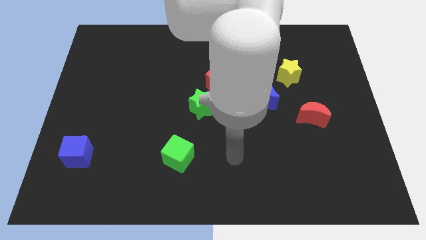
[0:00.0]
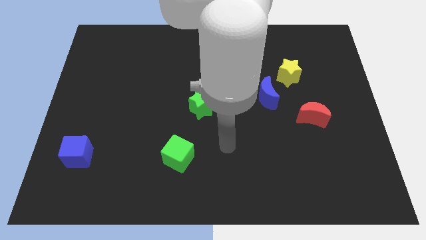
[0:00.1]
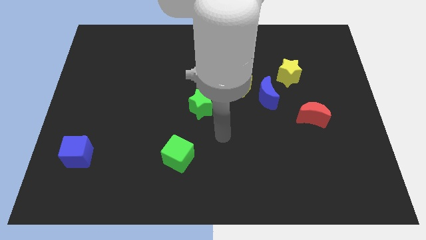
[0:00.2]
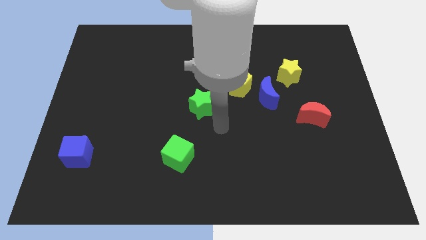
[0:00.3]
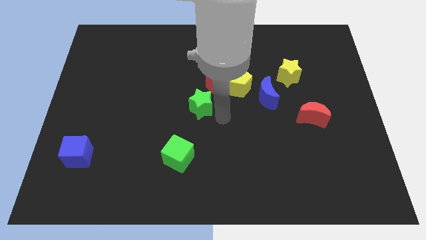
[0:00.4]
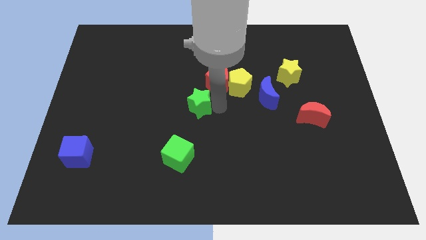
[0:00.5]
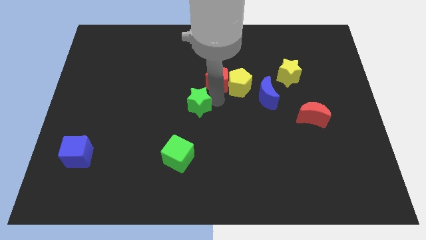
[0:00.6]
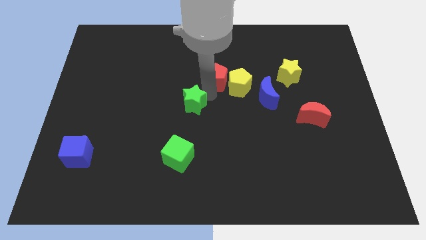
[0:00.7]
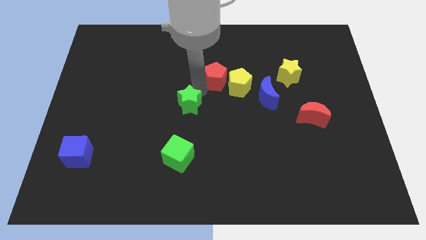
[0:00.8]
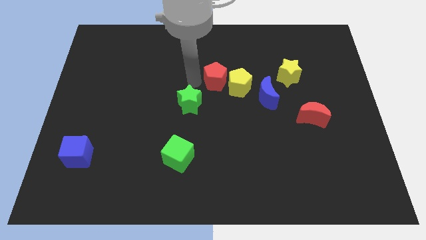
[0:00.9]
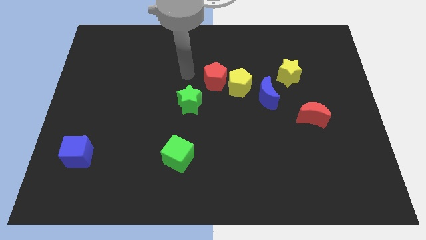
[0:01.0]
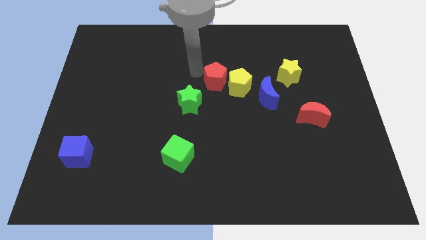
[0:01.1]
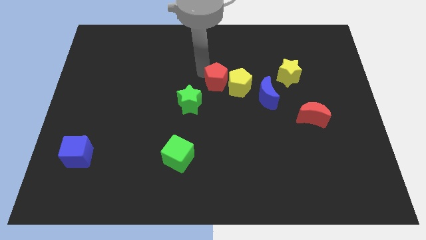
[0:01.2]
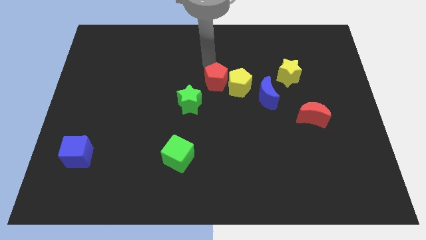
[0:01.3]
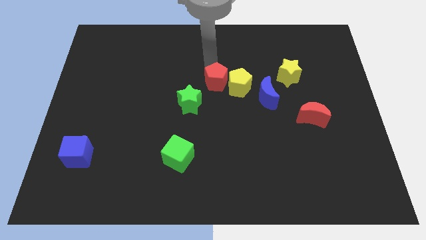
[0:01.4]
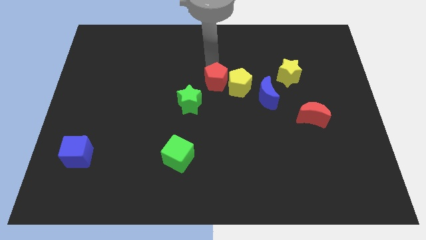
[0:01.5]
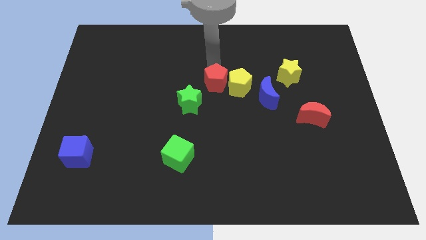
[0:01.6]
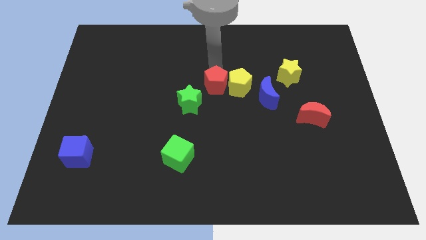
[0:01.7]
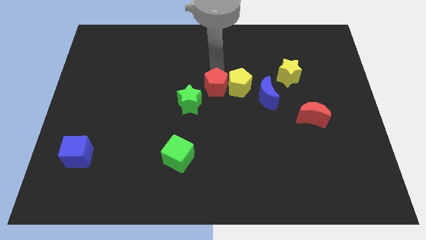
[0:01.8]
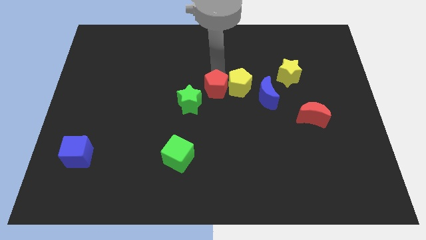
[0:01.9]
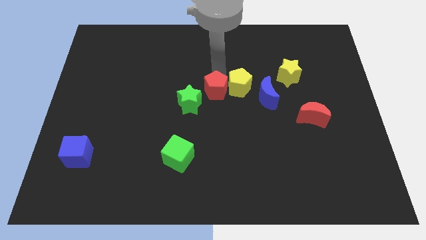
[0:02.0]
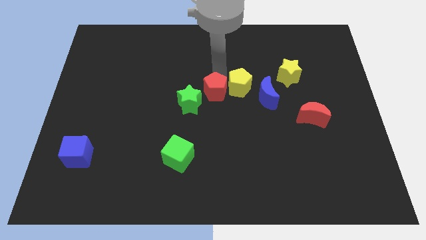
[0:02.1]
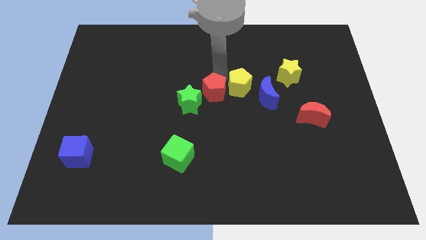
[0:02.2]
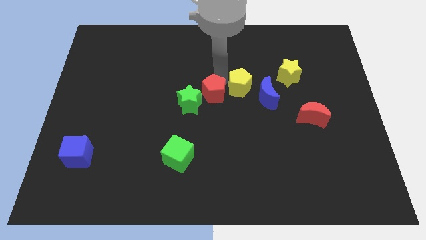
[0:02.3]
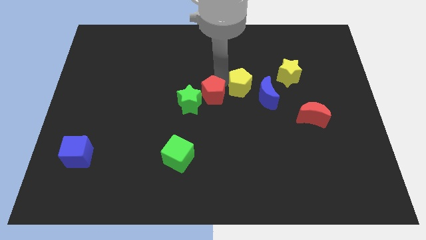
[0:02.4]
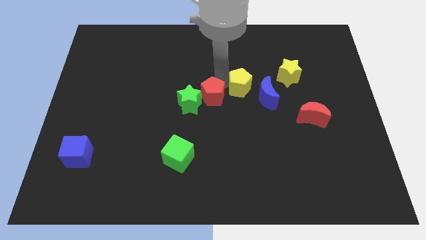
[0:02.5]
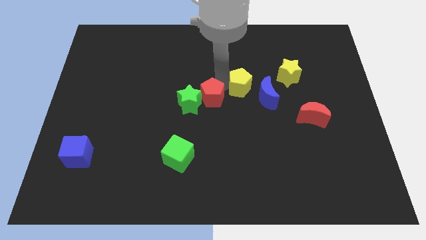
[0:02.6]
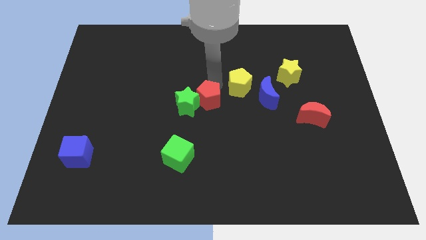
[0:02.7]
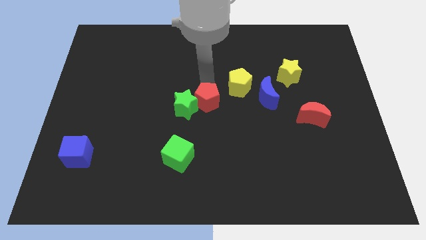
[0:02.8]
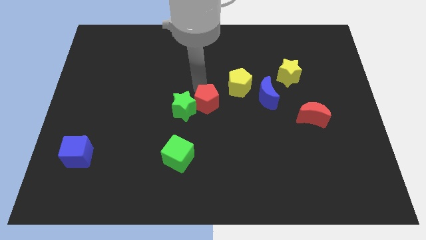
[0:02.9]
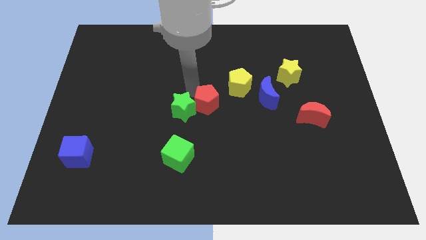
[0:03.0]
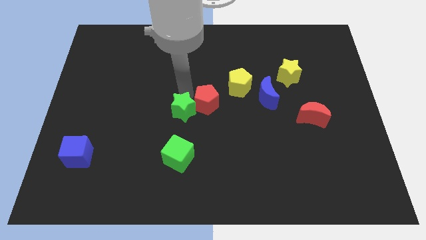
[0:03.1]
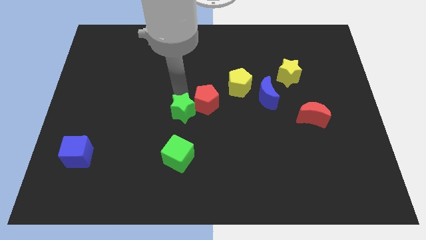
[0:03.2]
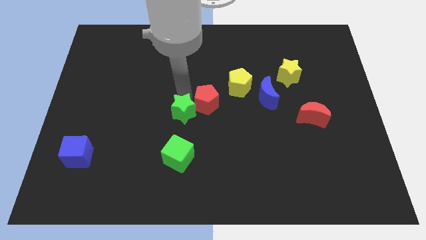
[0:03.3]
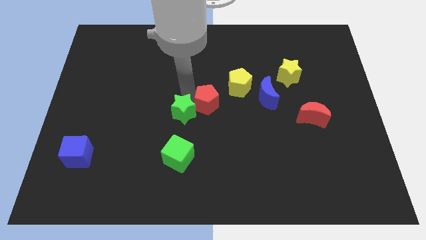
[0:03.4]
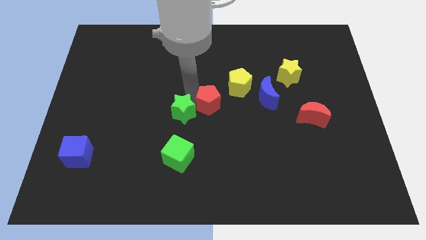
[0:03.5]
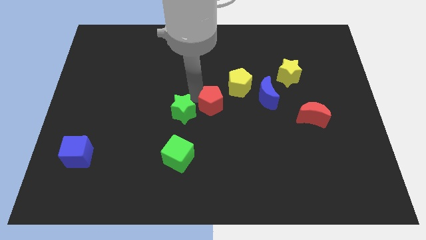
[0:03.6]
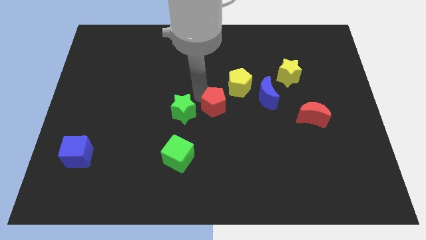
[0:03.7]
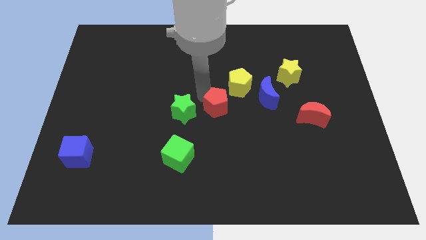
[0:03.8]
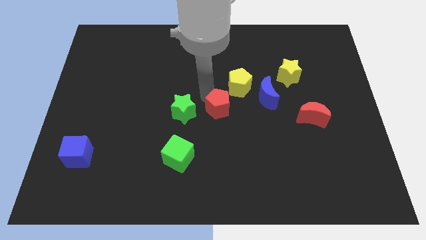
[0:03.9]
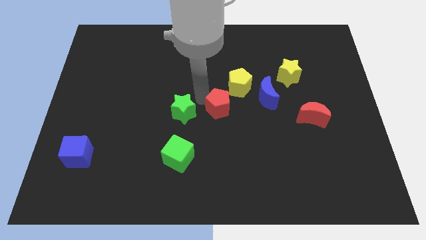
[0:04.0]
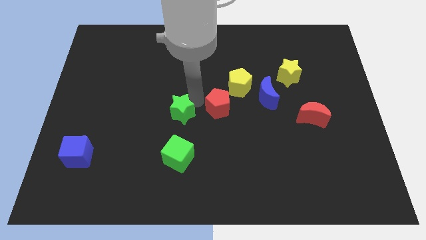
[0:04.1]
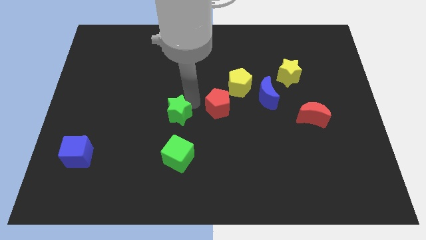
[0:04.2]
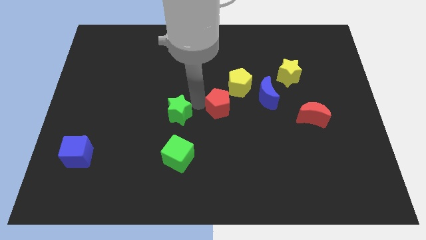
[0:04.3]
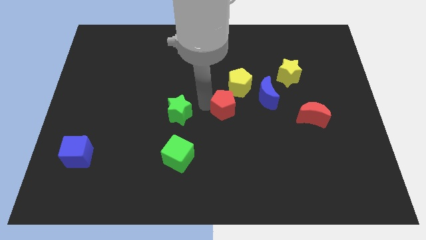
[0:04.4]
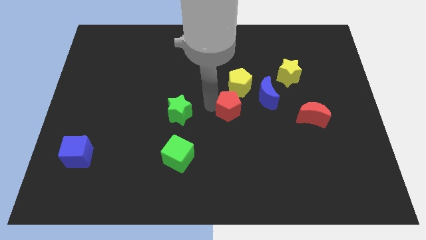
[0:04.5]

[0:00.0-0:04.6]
push the red pentagon somewhat diagonally down and right

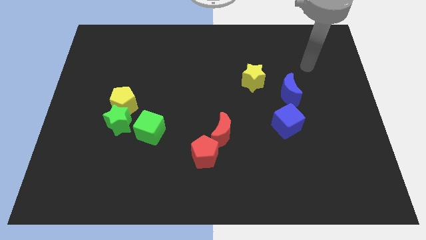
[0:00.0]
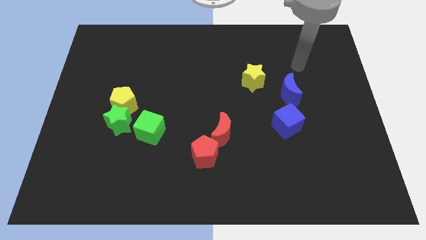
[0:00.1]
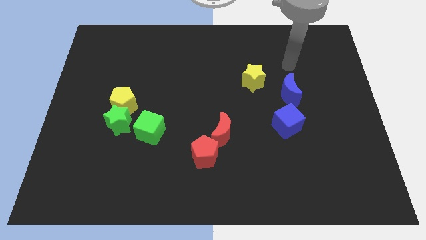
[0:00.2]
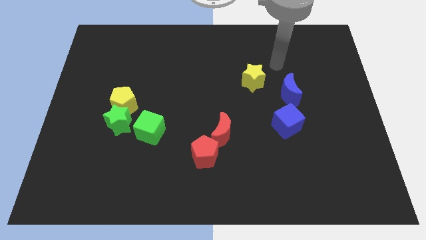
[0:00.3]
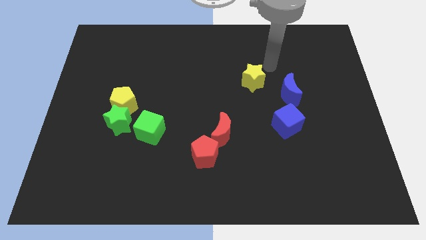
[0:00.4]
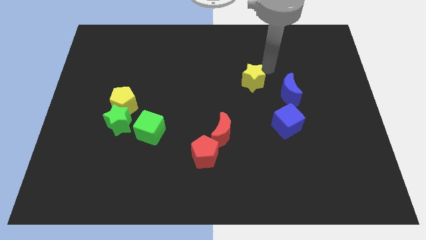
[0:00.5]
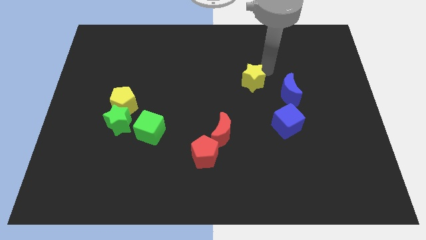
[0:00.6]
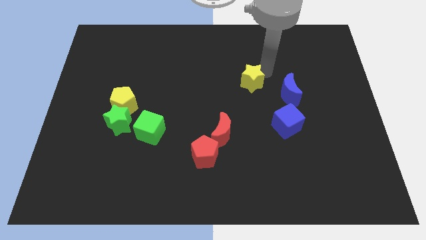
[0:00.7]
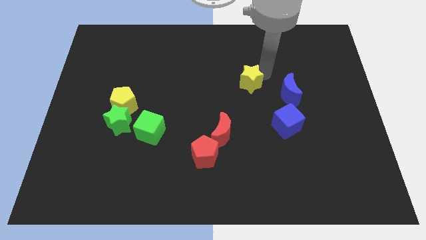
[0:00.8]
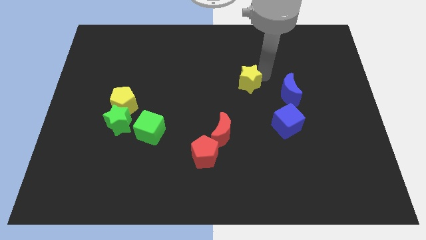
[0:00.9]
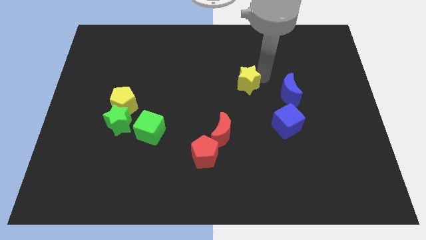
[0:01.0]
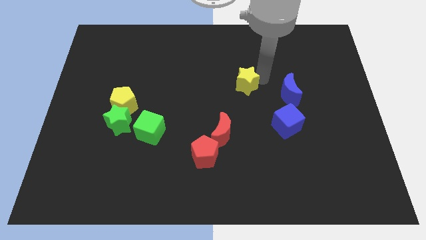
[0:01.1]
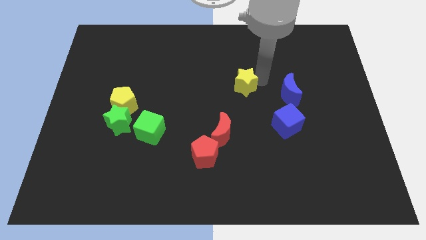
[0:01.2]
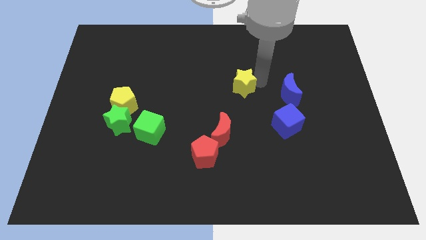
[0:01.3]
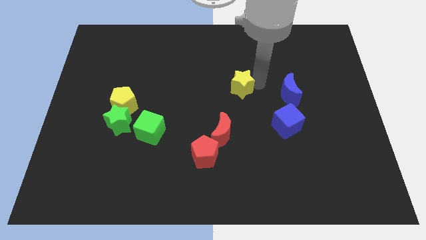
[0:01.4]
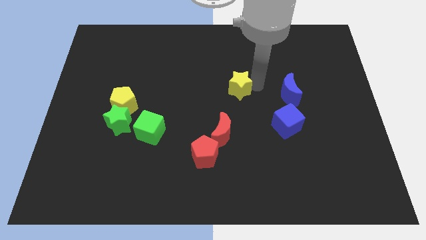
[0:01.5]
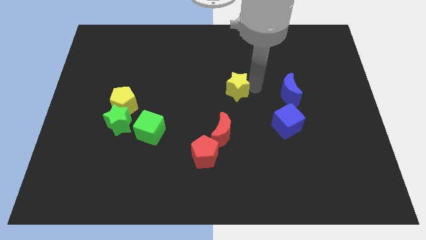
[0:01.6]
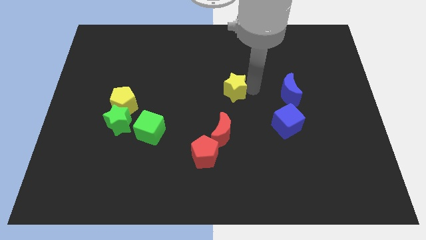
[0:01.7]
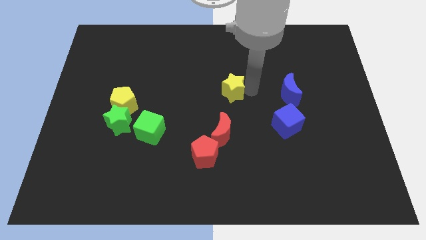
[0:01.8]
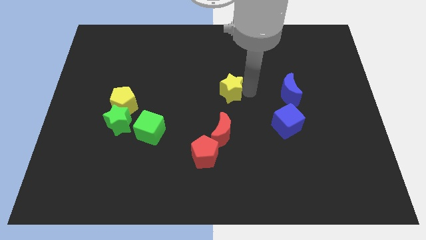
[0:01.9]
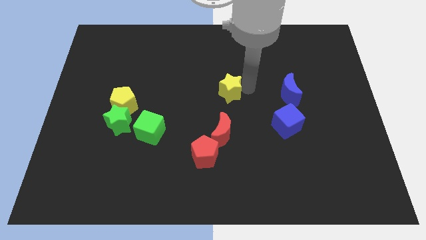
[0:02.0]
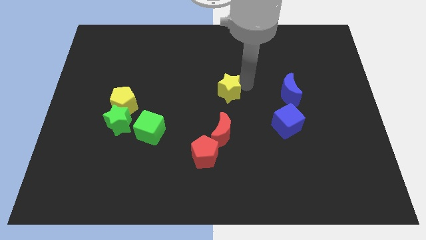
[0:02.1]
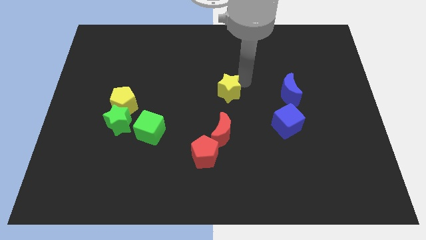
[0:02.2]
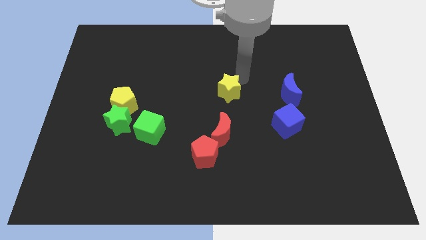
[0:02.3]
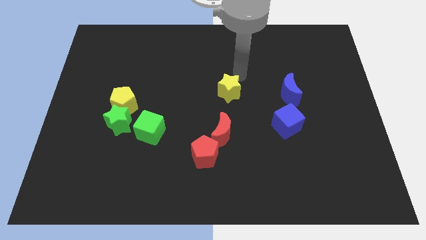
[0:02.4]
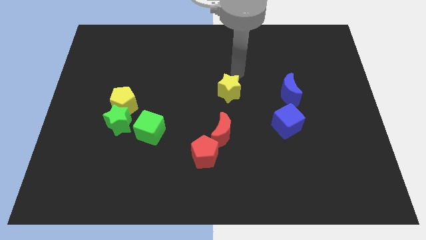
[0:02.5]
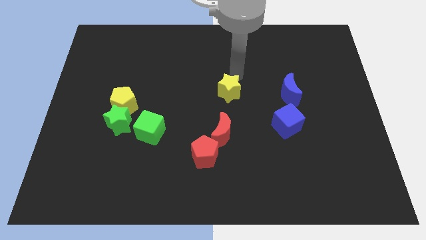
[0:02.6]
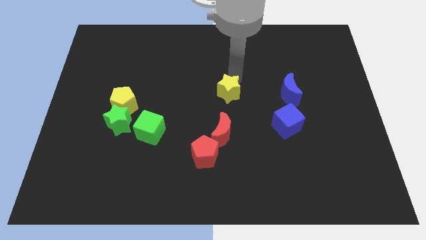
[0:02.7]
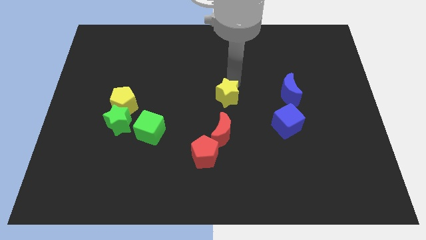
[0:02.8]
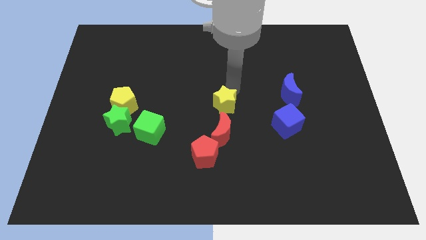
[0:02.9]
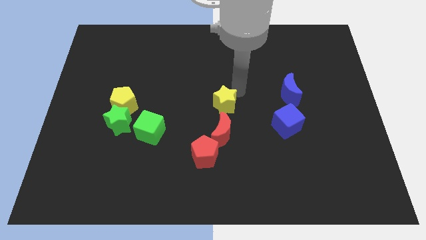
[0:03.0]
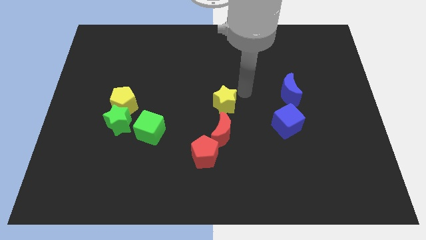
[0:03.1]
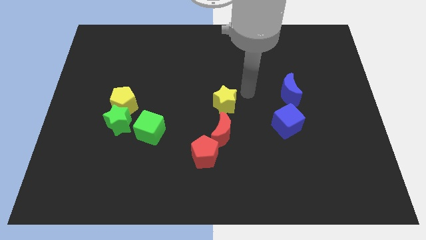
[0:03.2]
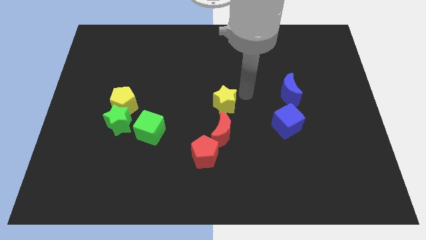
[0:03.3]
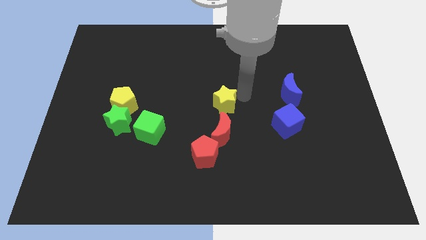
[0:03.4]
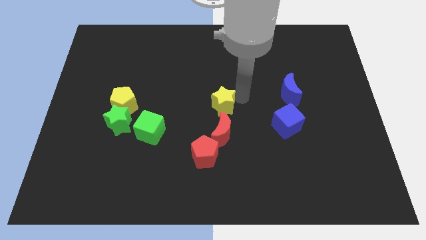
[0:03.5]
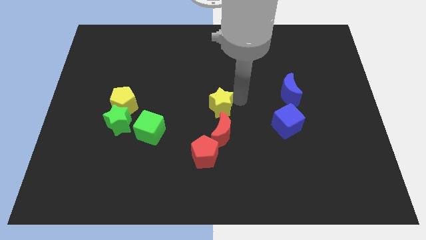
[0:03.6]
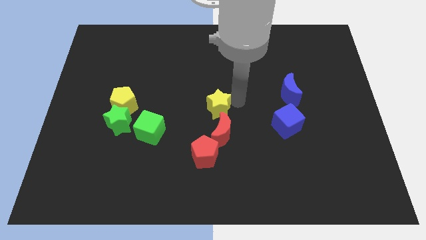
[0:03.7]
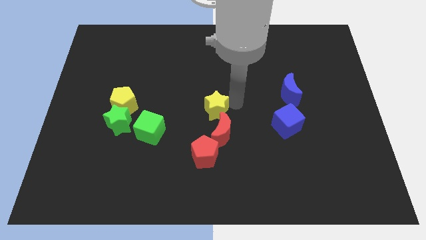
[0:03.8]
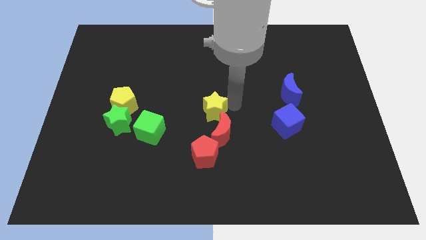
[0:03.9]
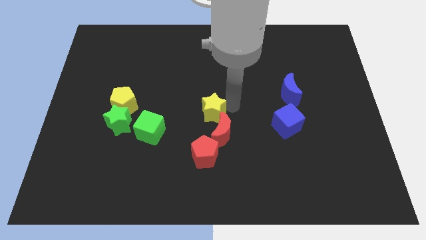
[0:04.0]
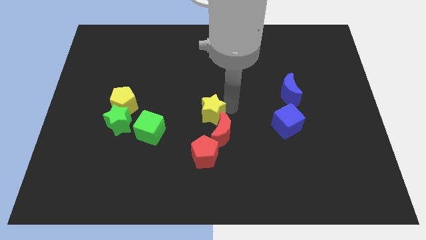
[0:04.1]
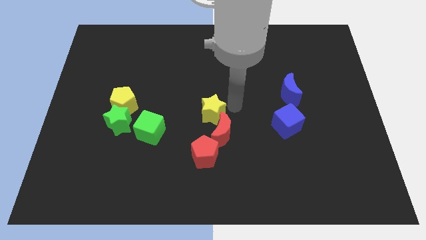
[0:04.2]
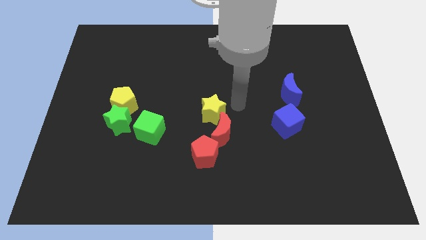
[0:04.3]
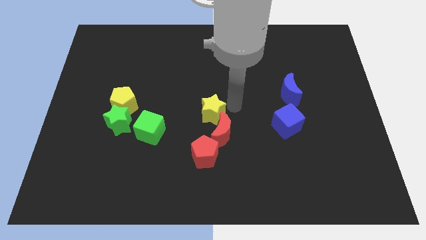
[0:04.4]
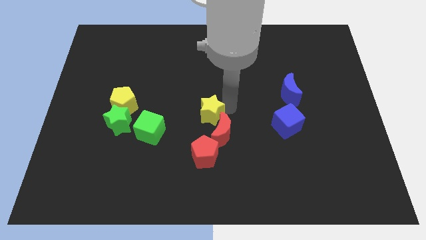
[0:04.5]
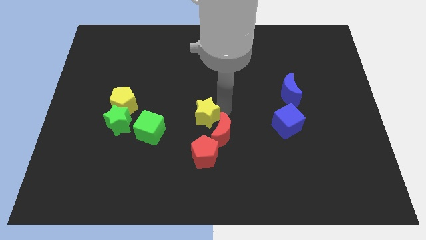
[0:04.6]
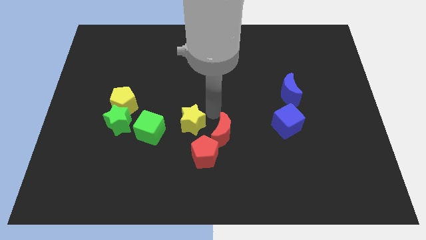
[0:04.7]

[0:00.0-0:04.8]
slide the yellow star downwards and then to the left
